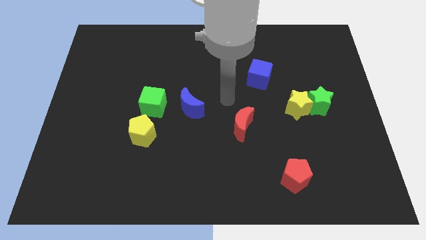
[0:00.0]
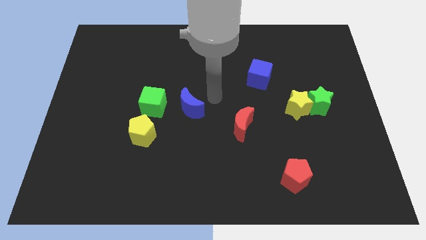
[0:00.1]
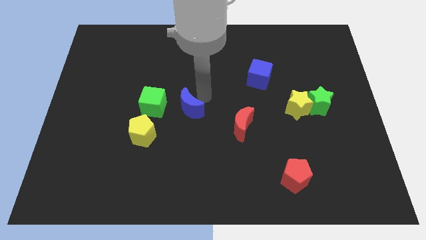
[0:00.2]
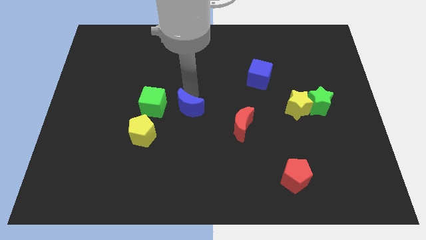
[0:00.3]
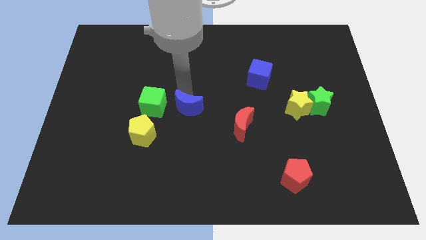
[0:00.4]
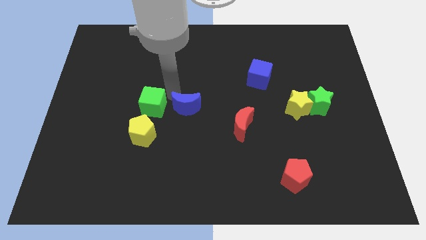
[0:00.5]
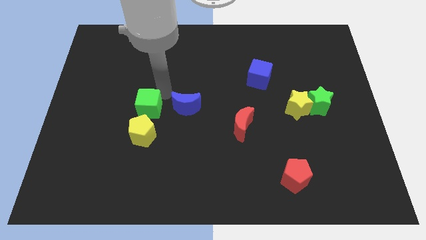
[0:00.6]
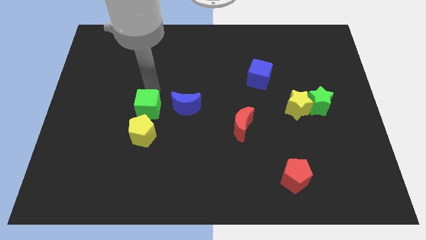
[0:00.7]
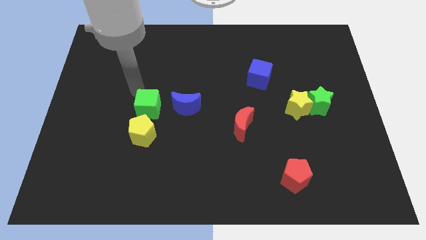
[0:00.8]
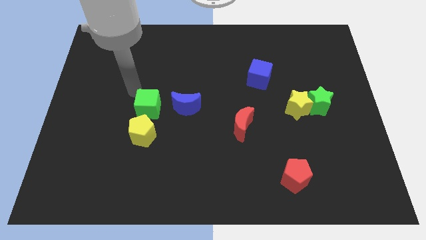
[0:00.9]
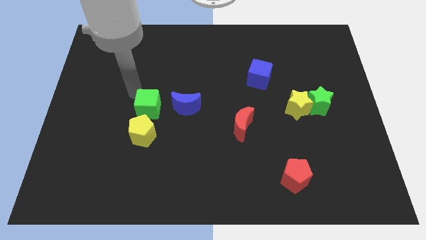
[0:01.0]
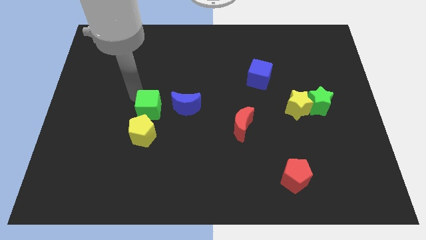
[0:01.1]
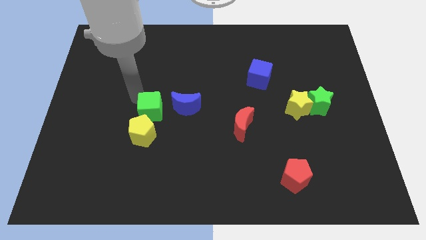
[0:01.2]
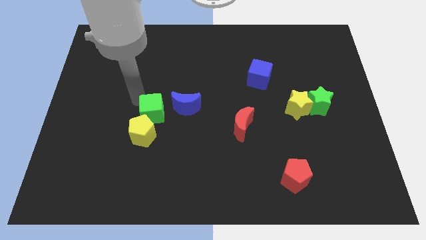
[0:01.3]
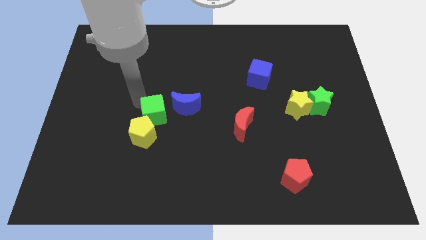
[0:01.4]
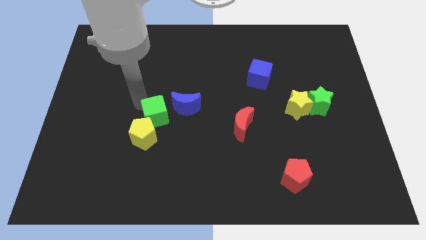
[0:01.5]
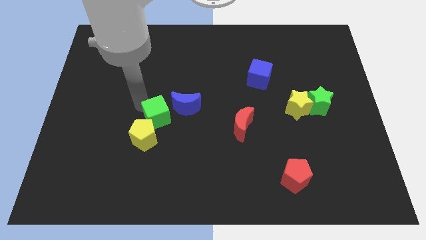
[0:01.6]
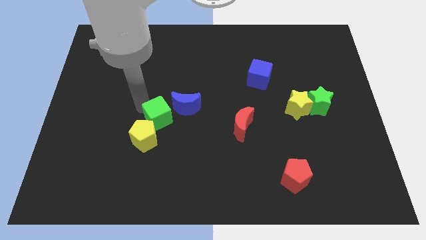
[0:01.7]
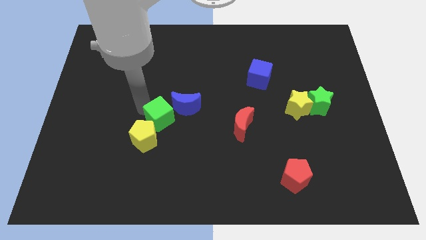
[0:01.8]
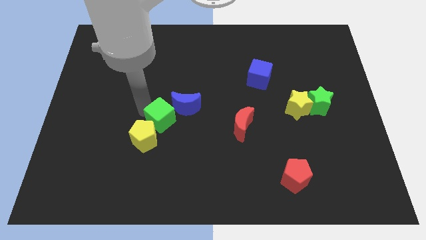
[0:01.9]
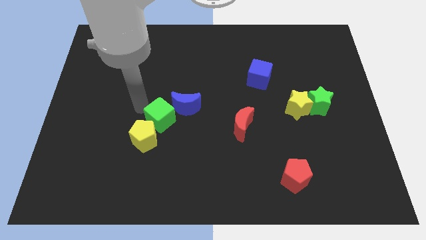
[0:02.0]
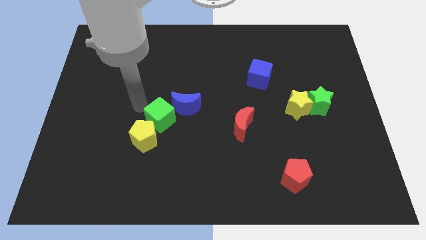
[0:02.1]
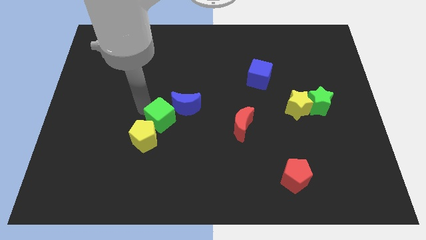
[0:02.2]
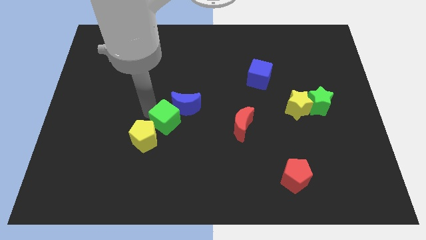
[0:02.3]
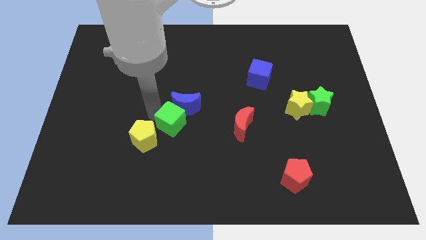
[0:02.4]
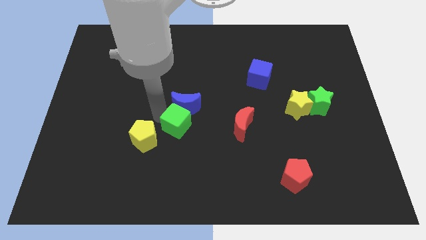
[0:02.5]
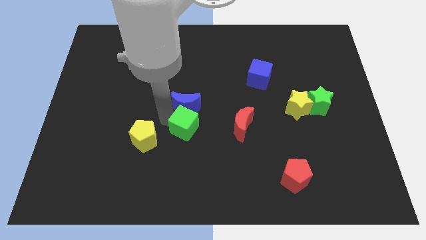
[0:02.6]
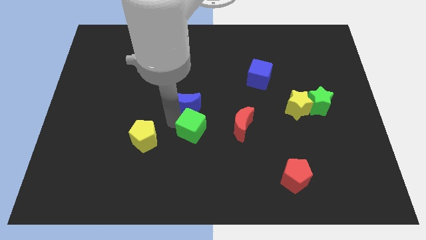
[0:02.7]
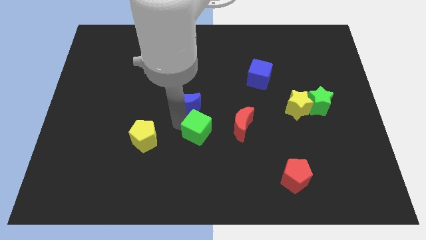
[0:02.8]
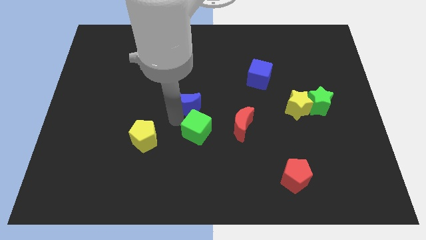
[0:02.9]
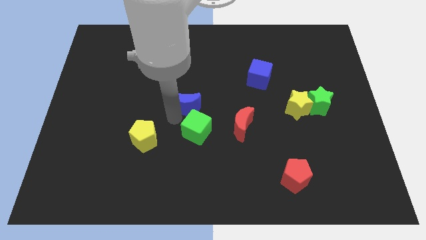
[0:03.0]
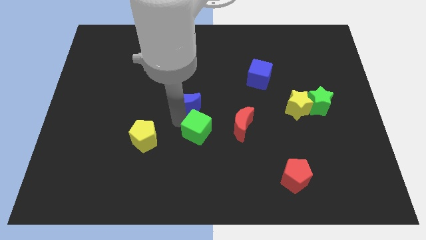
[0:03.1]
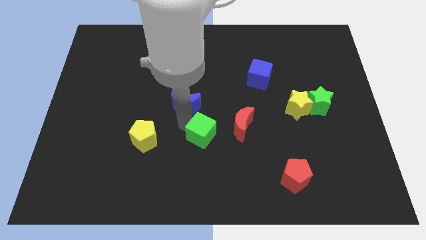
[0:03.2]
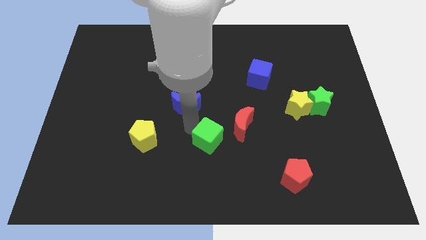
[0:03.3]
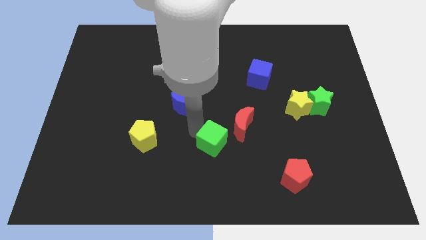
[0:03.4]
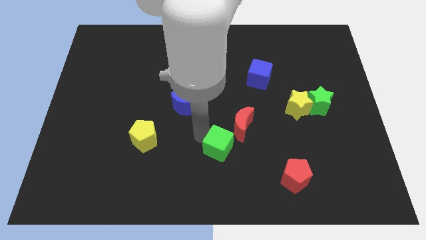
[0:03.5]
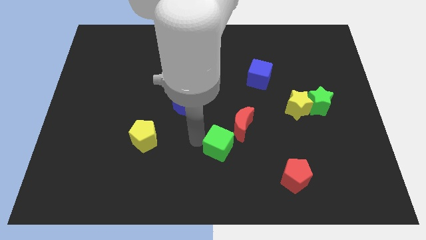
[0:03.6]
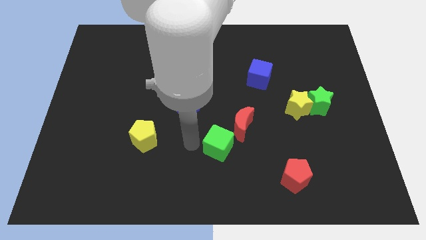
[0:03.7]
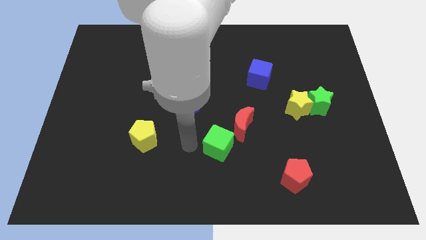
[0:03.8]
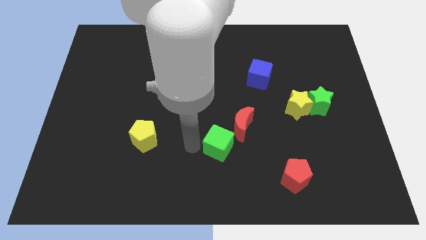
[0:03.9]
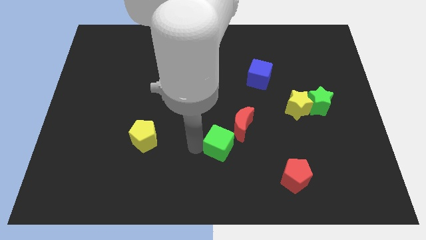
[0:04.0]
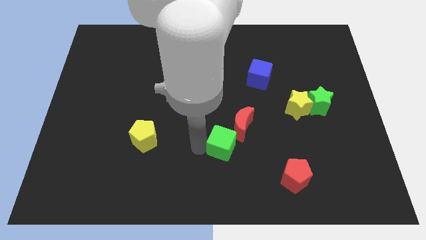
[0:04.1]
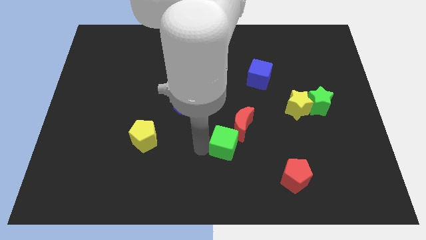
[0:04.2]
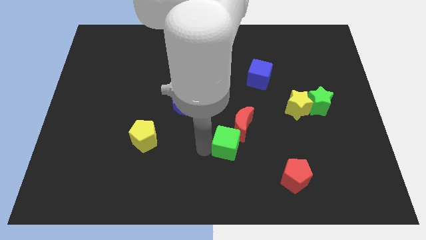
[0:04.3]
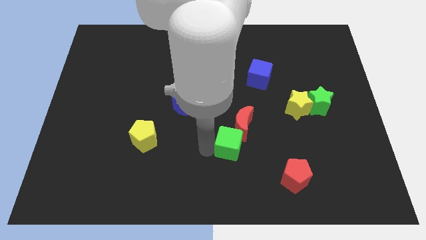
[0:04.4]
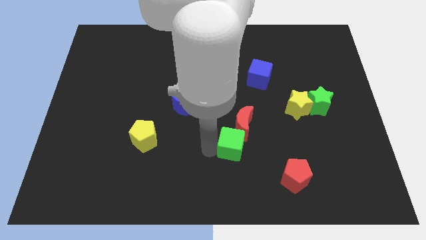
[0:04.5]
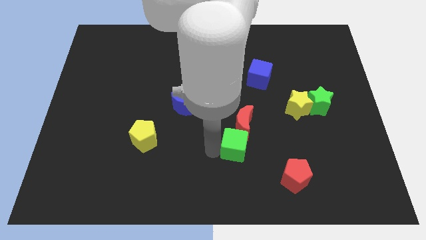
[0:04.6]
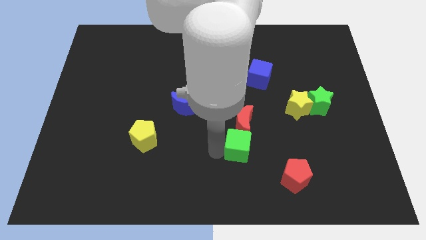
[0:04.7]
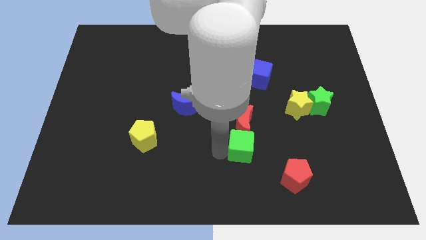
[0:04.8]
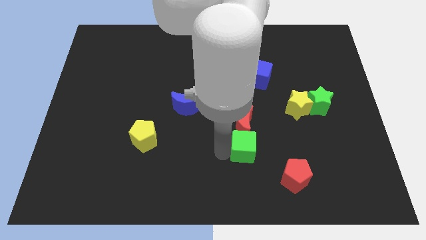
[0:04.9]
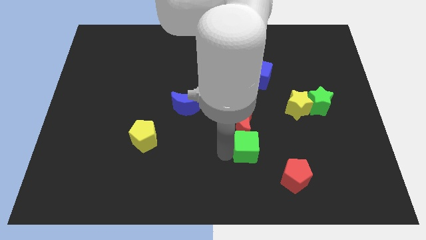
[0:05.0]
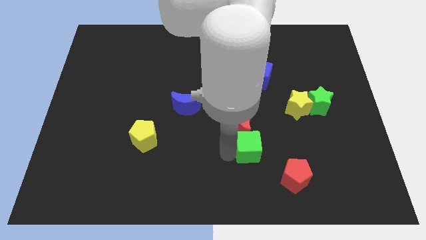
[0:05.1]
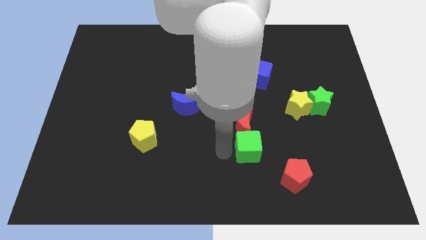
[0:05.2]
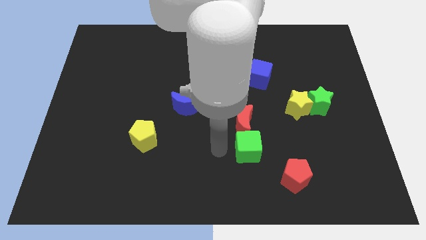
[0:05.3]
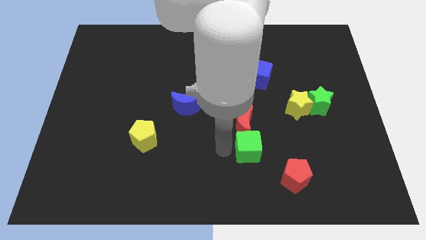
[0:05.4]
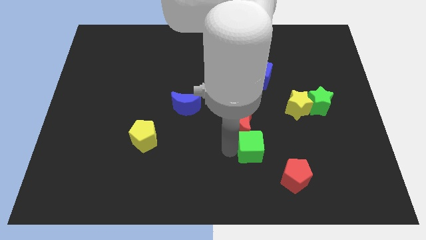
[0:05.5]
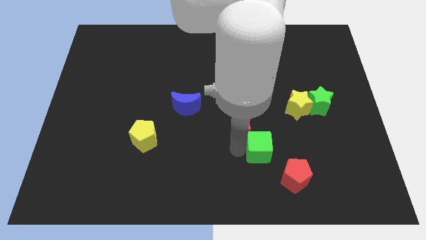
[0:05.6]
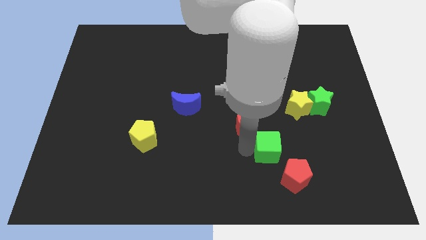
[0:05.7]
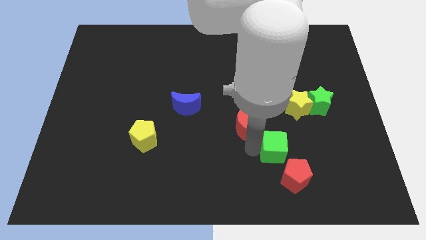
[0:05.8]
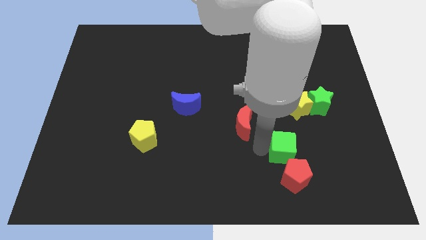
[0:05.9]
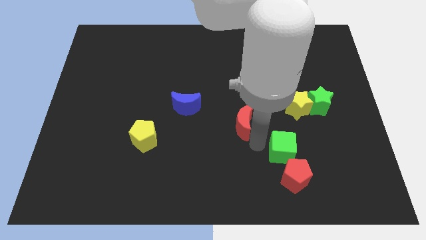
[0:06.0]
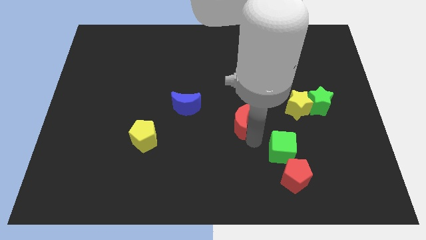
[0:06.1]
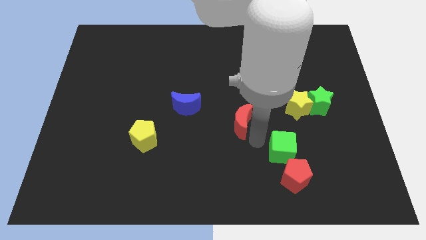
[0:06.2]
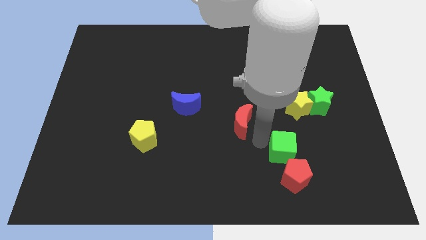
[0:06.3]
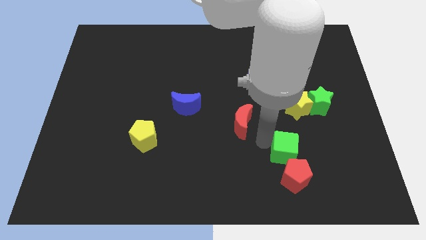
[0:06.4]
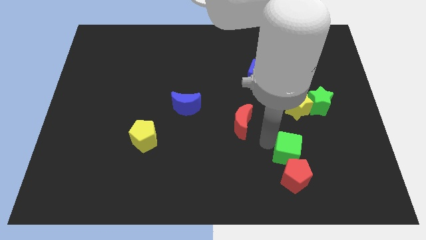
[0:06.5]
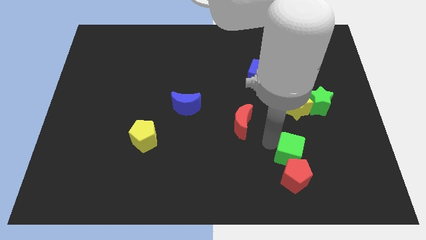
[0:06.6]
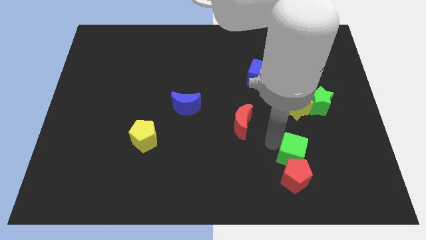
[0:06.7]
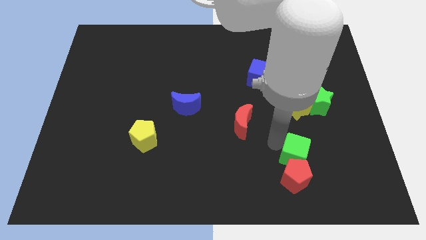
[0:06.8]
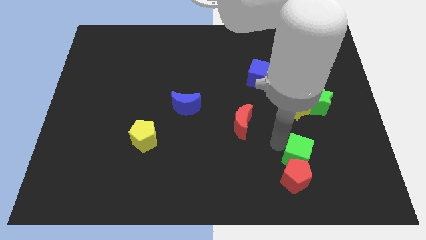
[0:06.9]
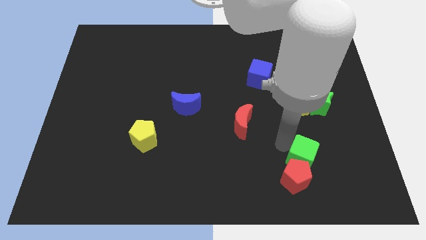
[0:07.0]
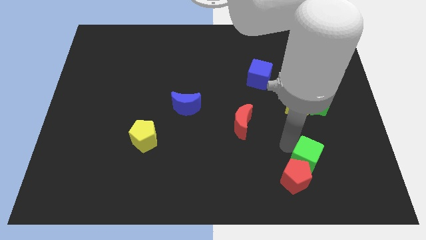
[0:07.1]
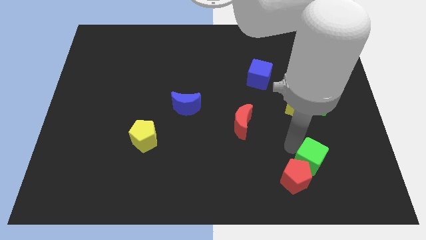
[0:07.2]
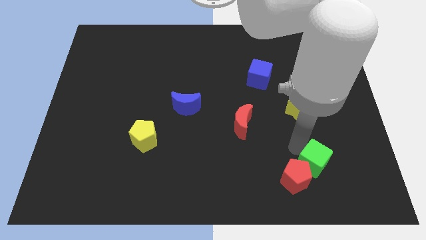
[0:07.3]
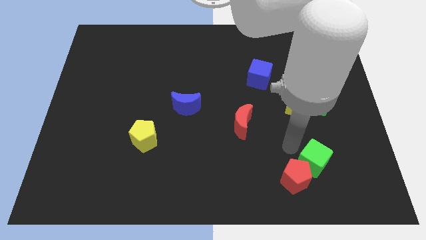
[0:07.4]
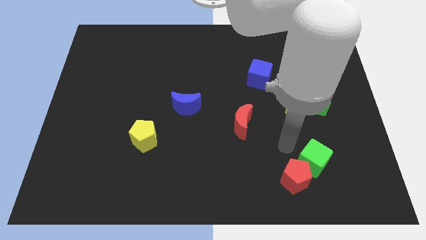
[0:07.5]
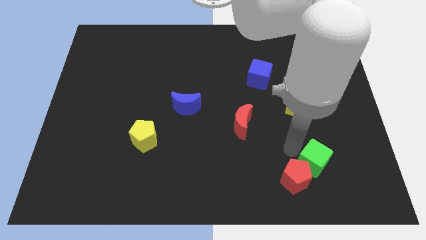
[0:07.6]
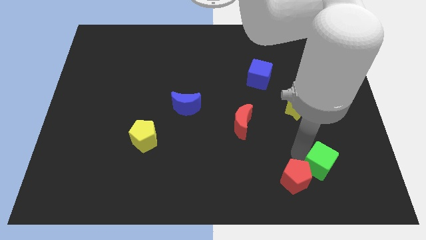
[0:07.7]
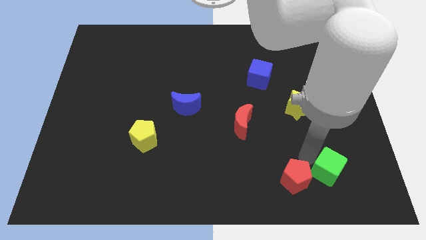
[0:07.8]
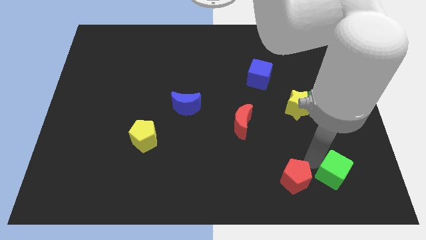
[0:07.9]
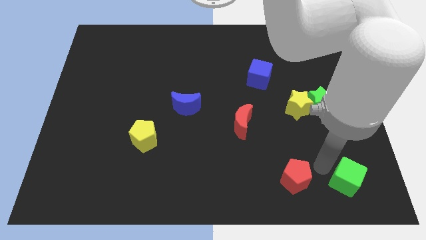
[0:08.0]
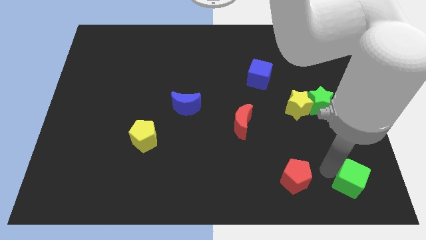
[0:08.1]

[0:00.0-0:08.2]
slide the green cube to the bottom right of the board
